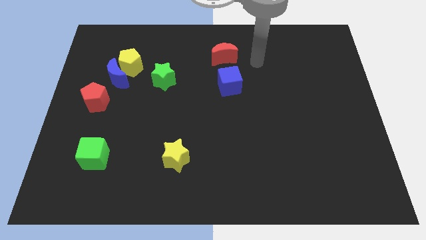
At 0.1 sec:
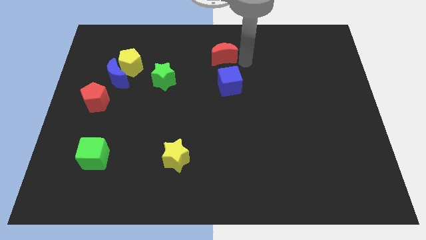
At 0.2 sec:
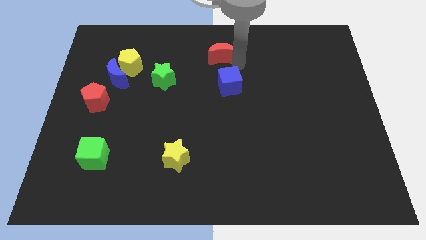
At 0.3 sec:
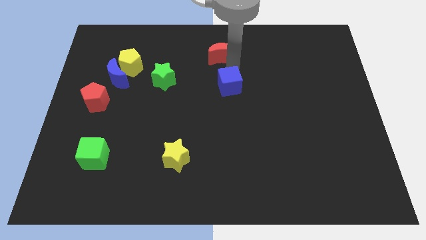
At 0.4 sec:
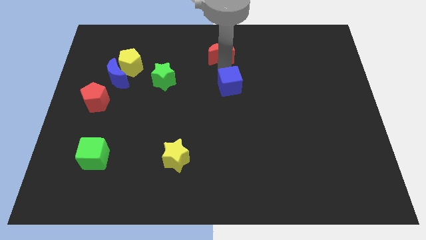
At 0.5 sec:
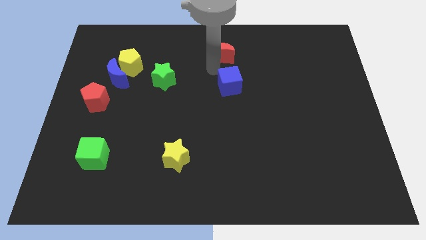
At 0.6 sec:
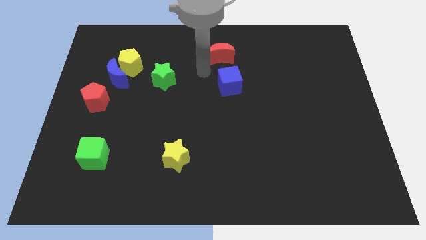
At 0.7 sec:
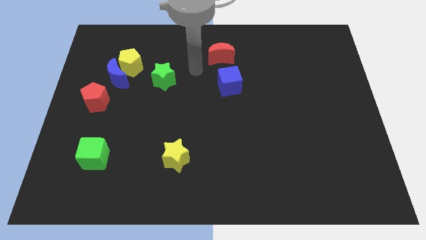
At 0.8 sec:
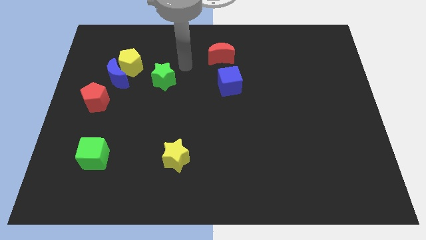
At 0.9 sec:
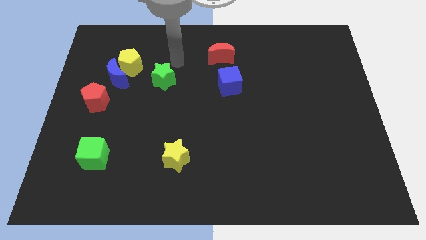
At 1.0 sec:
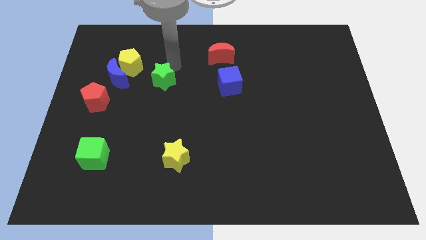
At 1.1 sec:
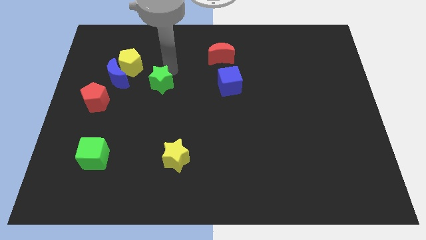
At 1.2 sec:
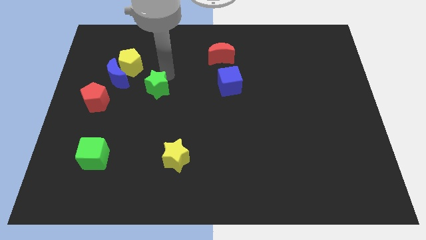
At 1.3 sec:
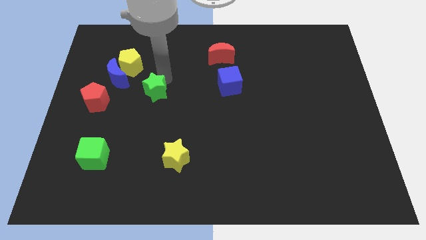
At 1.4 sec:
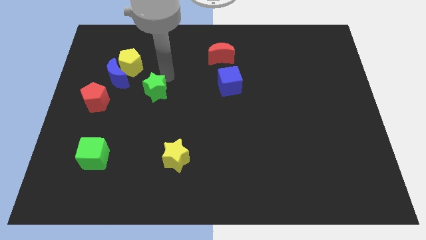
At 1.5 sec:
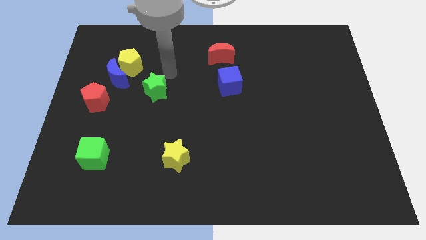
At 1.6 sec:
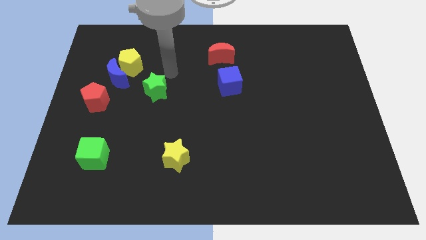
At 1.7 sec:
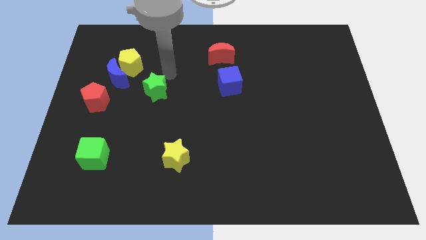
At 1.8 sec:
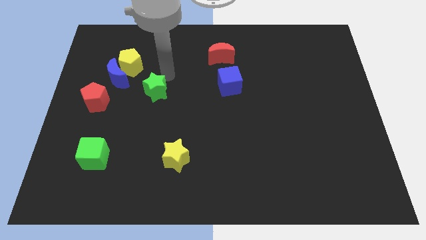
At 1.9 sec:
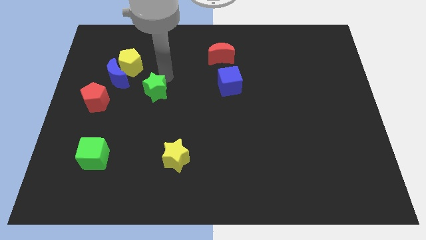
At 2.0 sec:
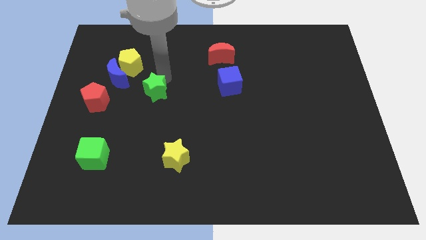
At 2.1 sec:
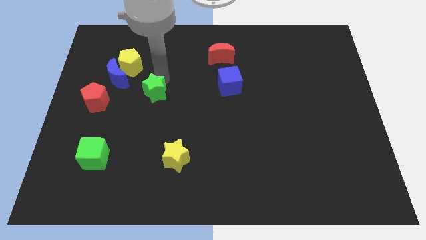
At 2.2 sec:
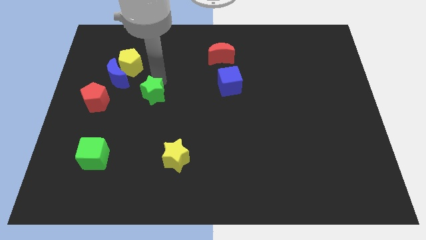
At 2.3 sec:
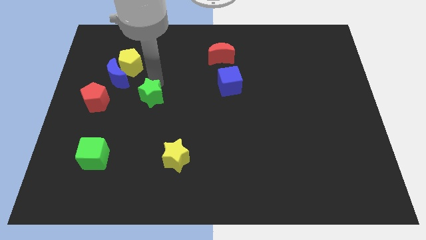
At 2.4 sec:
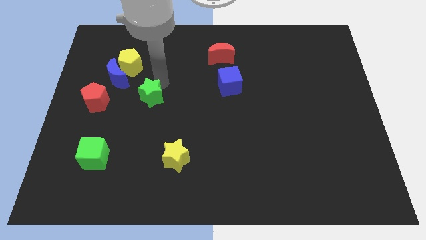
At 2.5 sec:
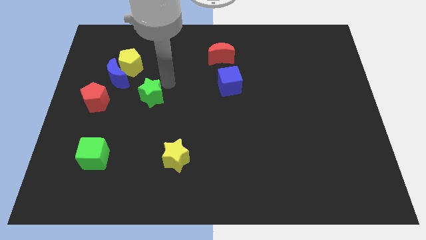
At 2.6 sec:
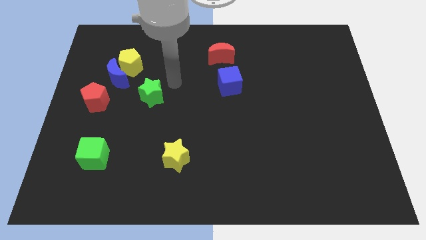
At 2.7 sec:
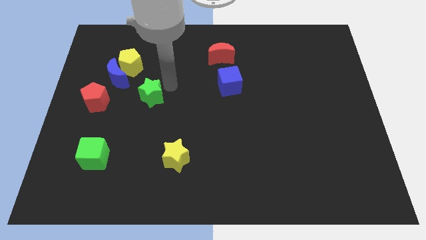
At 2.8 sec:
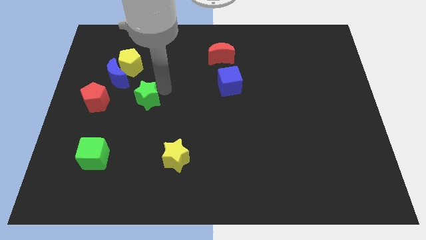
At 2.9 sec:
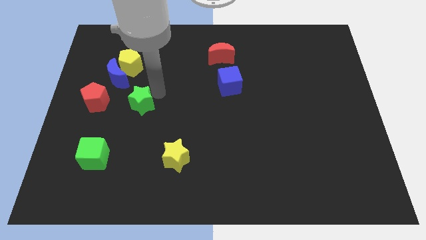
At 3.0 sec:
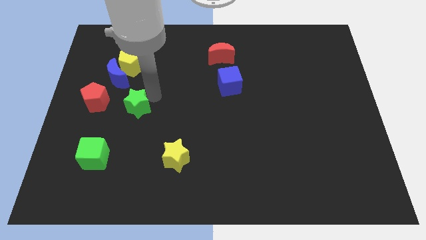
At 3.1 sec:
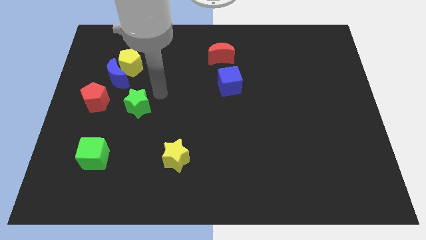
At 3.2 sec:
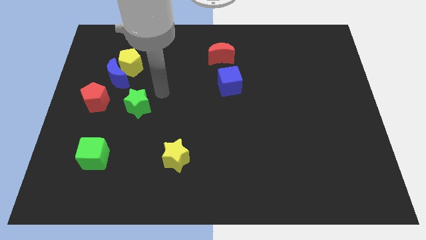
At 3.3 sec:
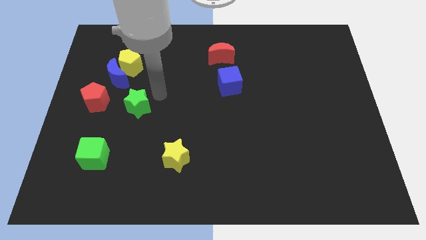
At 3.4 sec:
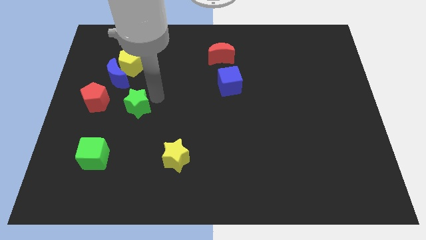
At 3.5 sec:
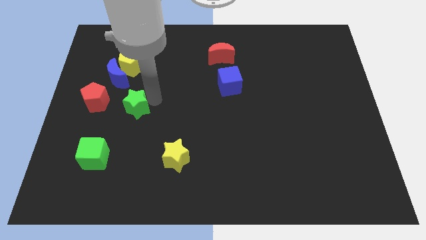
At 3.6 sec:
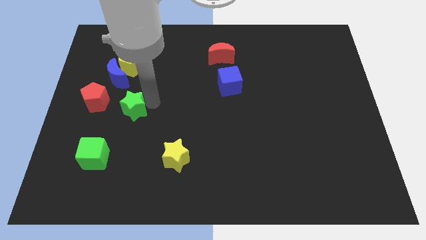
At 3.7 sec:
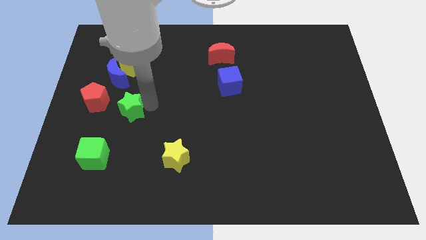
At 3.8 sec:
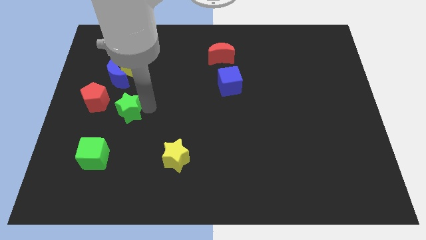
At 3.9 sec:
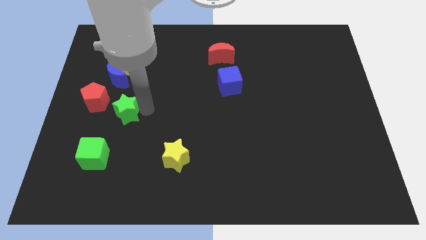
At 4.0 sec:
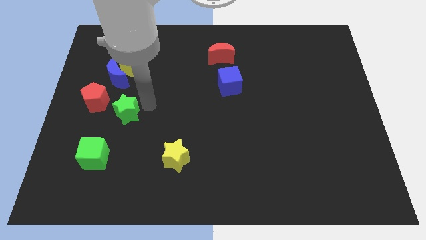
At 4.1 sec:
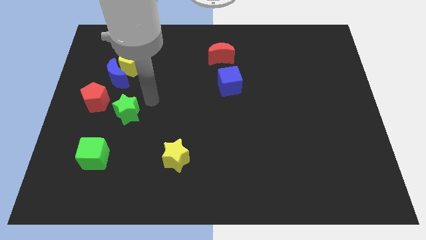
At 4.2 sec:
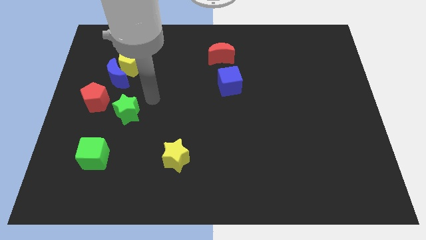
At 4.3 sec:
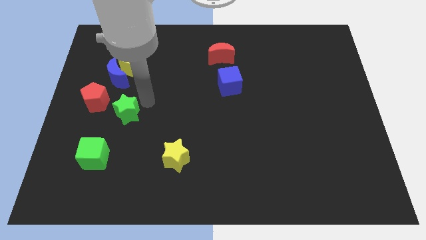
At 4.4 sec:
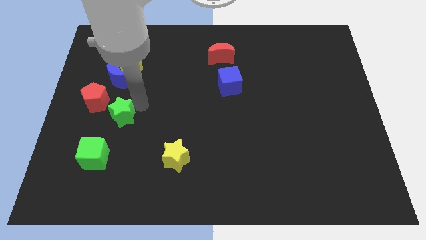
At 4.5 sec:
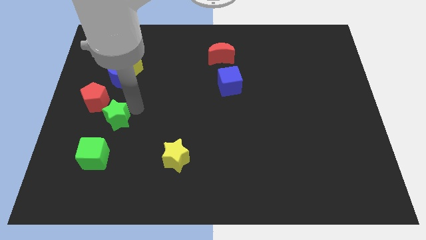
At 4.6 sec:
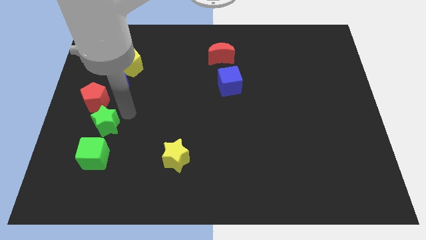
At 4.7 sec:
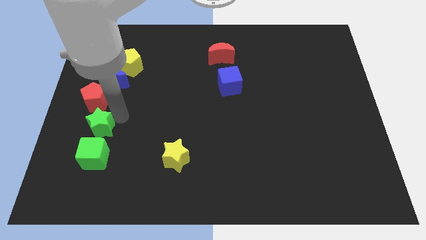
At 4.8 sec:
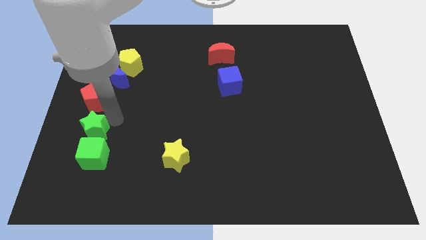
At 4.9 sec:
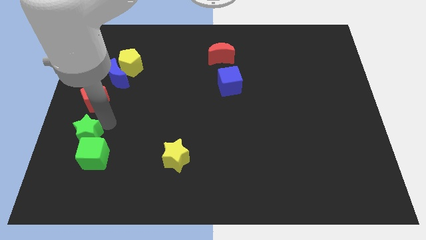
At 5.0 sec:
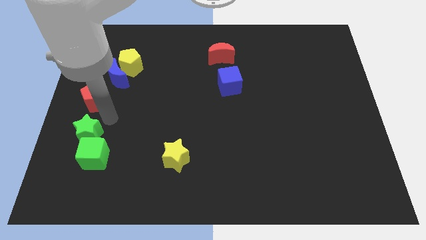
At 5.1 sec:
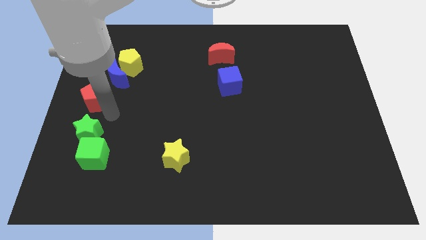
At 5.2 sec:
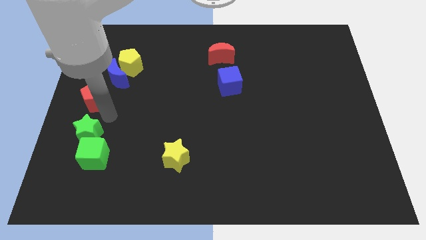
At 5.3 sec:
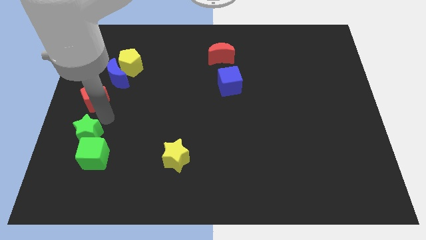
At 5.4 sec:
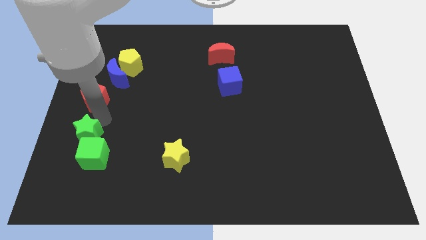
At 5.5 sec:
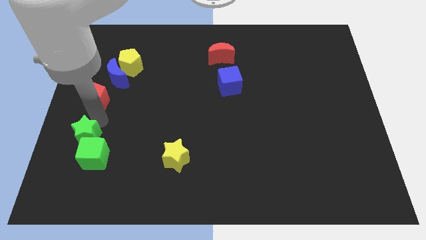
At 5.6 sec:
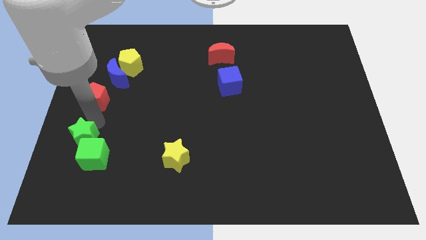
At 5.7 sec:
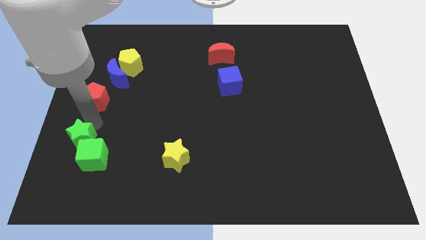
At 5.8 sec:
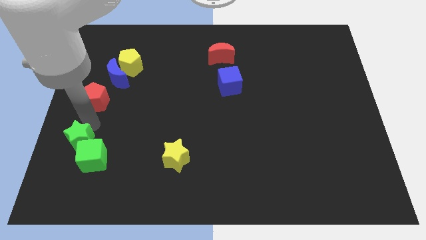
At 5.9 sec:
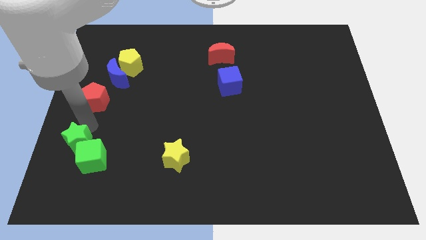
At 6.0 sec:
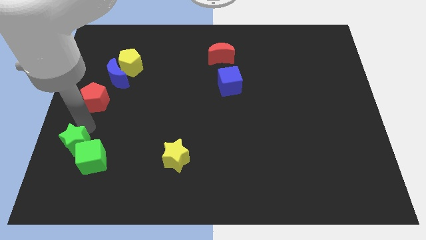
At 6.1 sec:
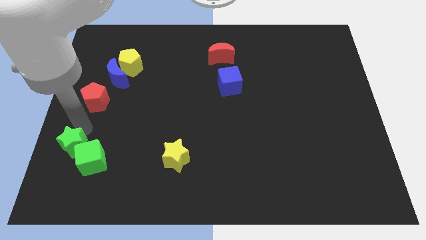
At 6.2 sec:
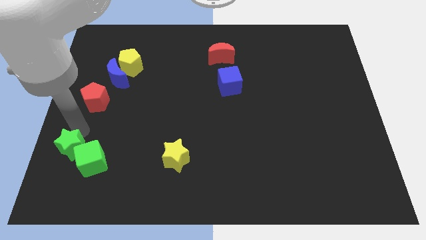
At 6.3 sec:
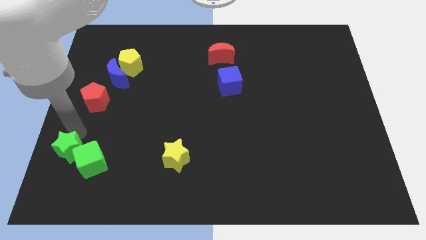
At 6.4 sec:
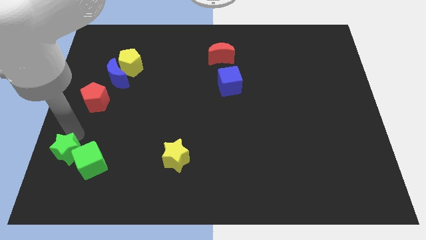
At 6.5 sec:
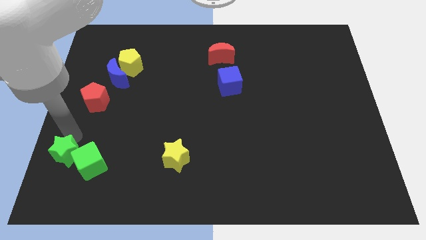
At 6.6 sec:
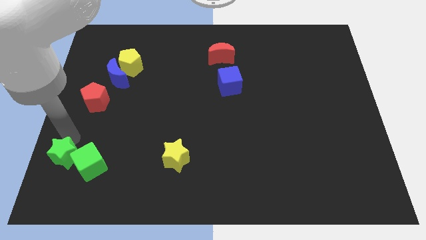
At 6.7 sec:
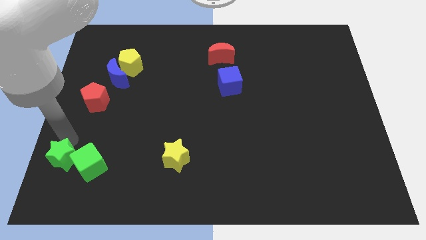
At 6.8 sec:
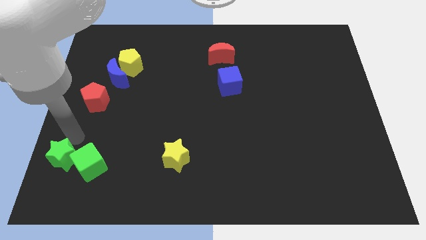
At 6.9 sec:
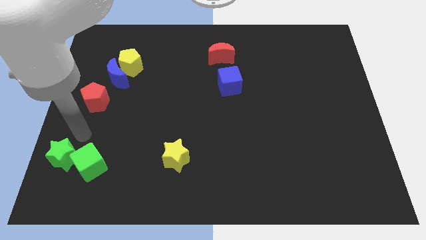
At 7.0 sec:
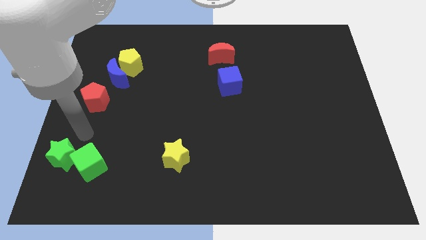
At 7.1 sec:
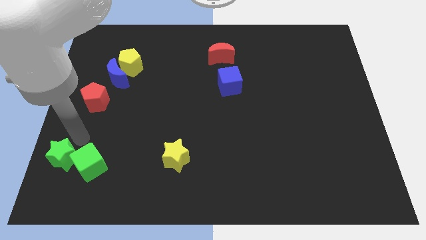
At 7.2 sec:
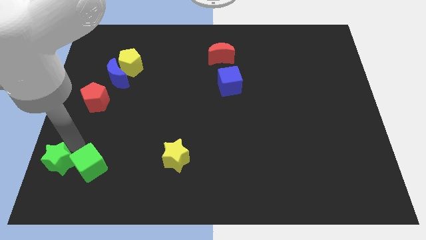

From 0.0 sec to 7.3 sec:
push the green star to the bottom left of the board
